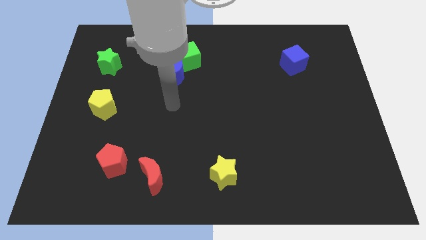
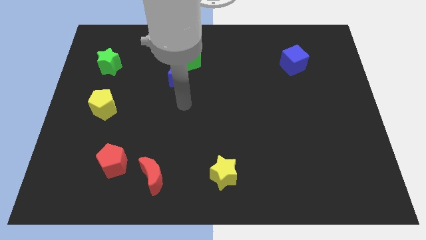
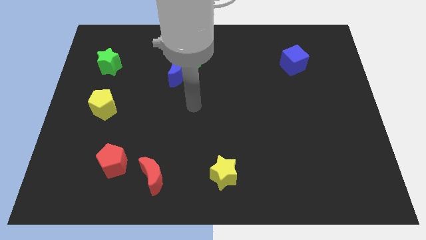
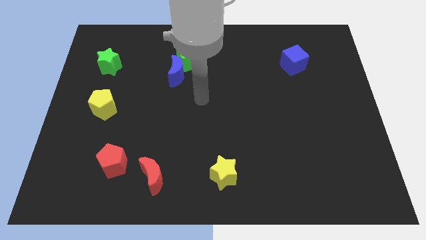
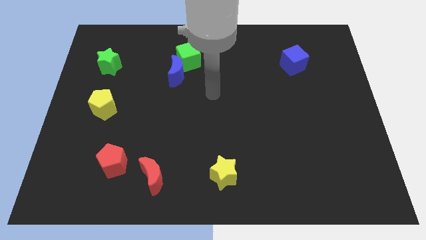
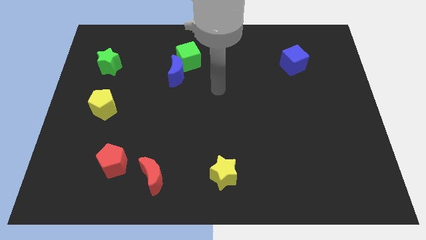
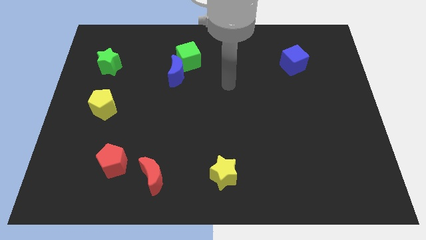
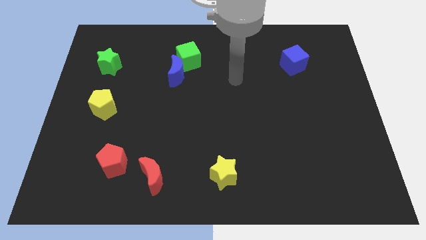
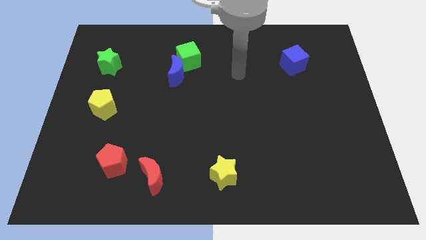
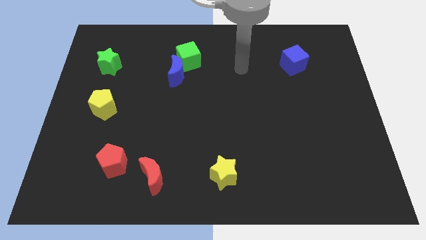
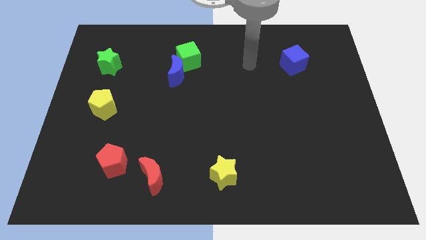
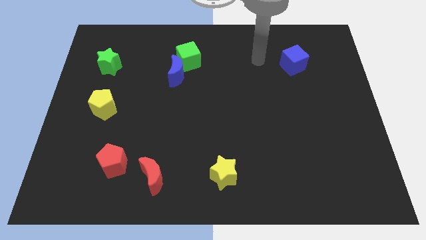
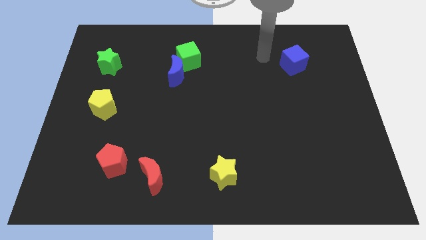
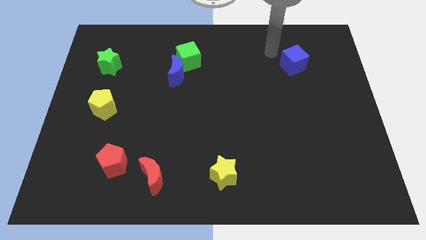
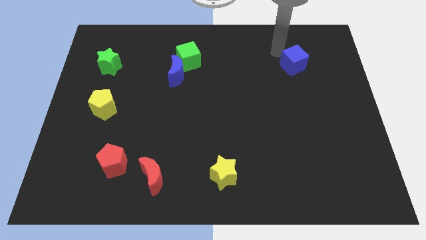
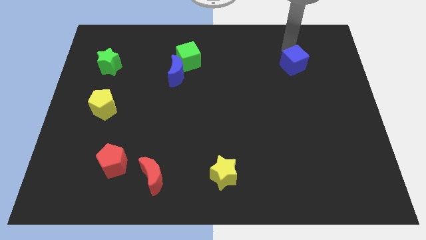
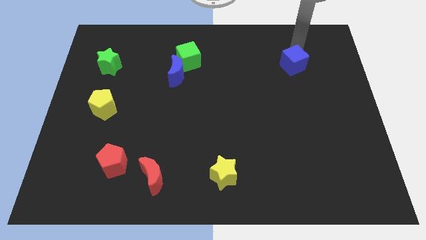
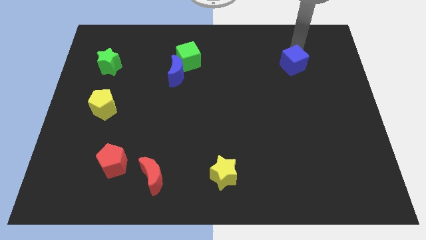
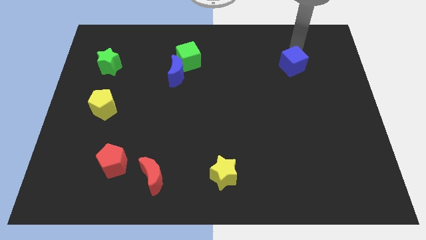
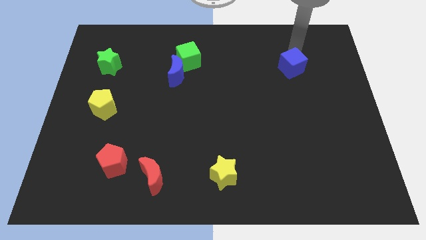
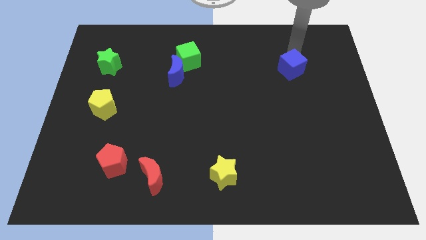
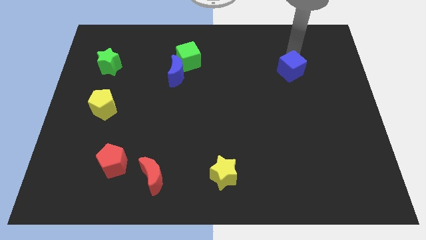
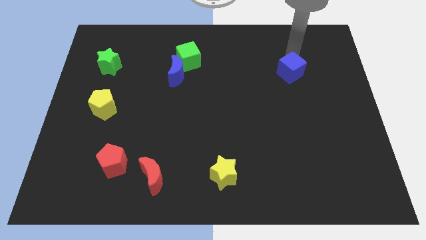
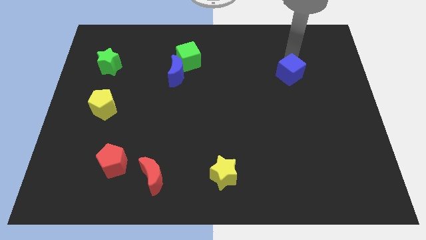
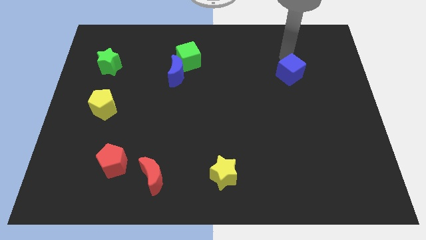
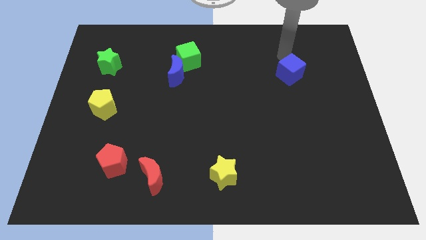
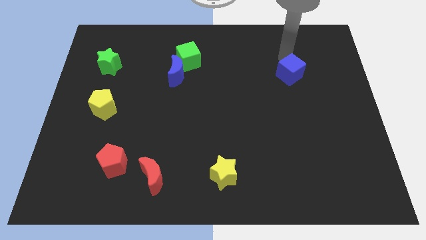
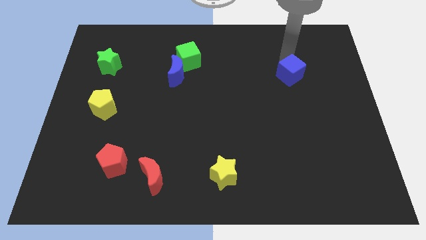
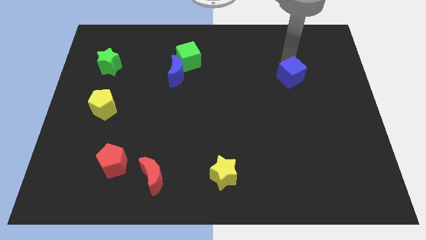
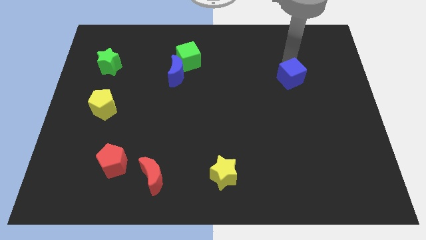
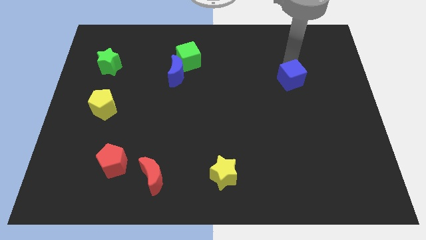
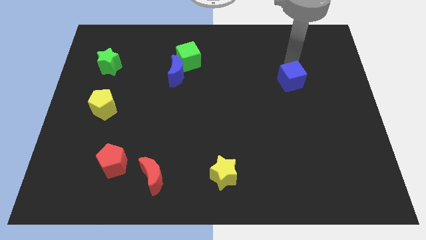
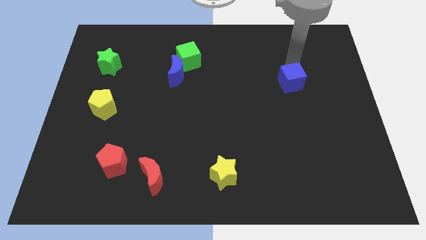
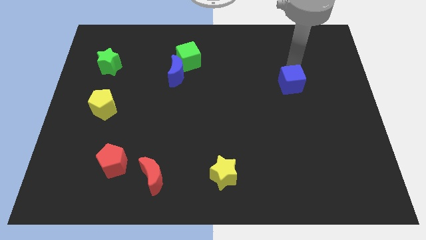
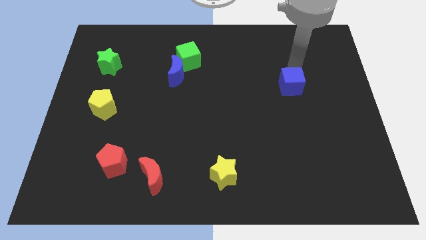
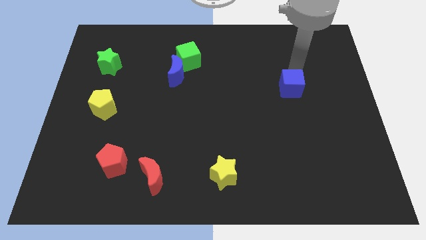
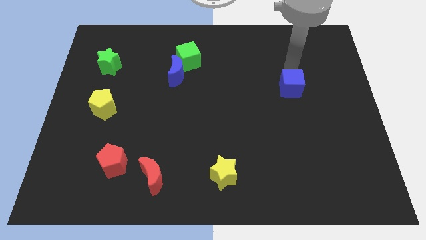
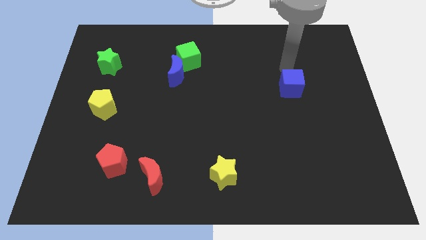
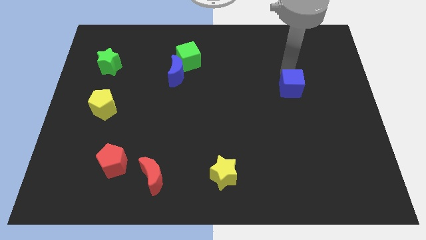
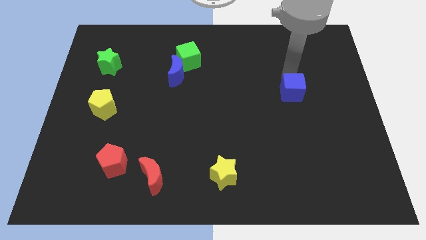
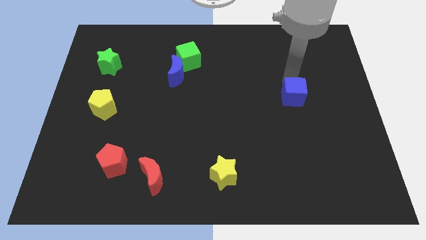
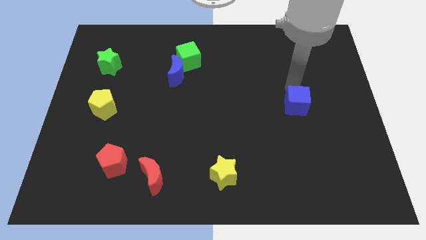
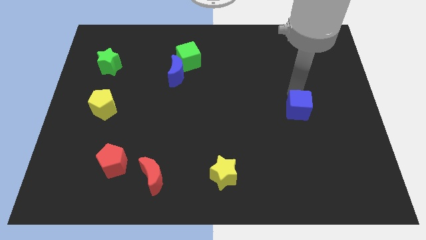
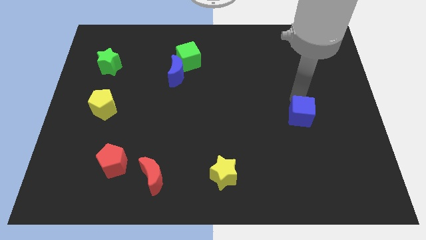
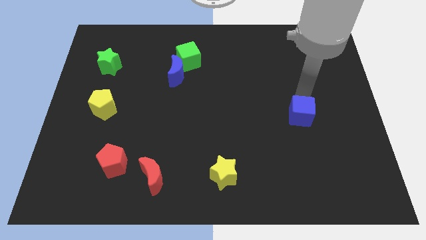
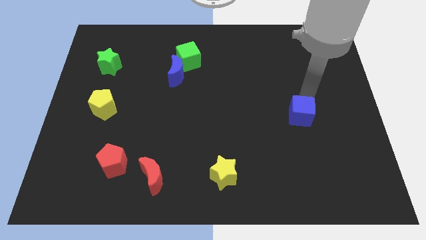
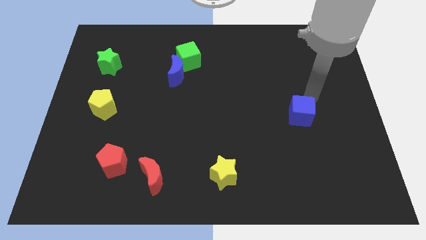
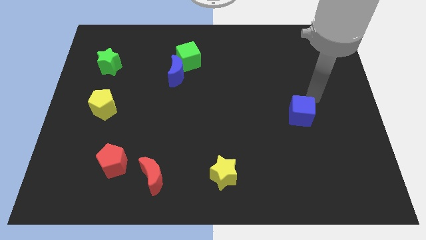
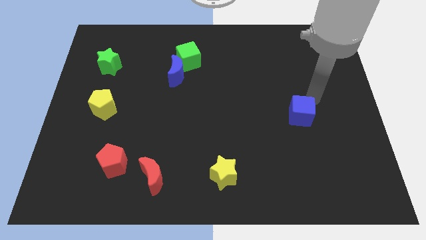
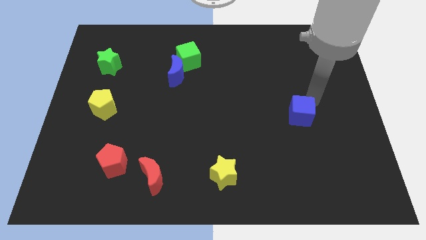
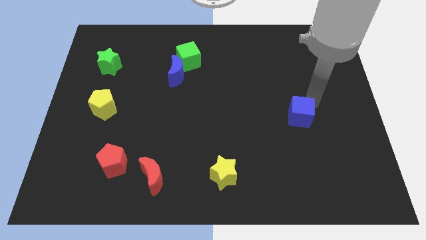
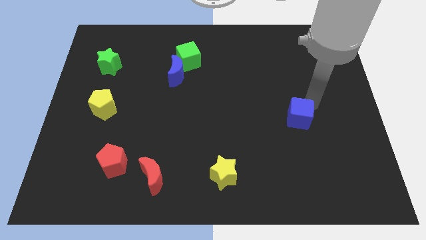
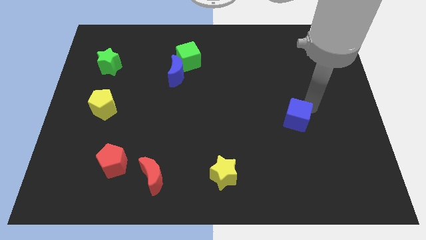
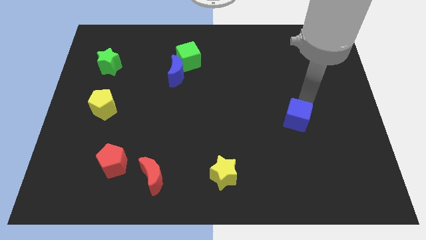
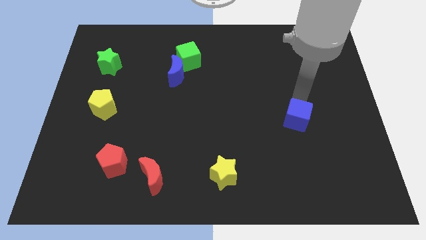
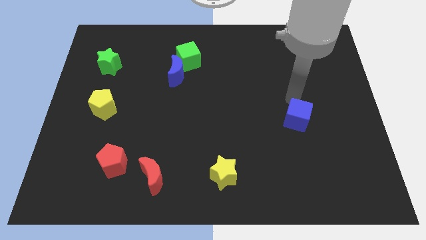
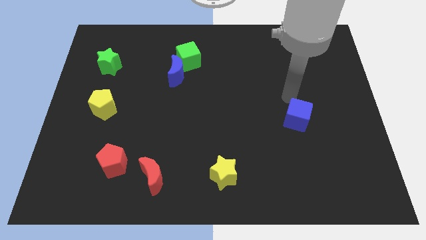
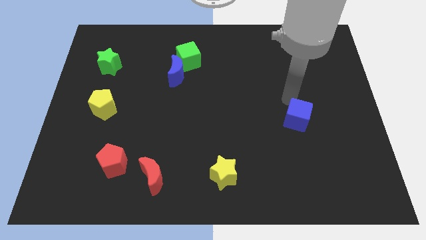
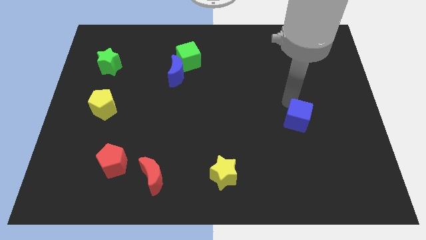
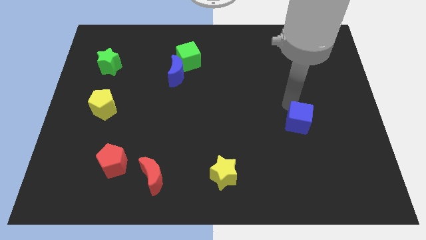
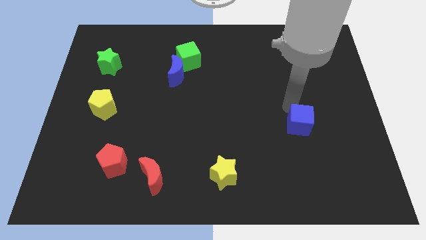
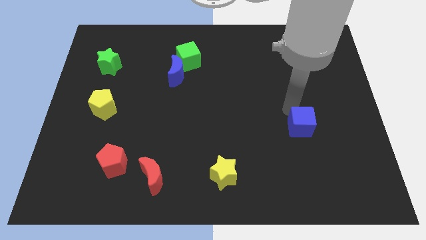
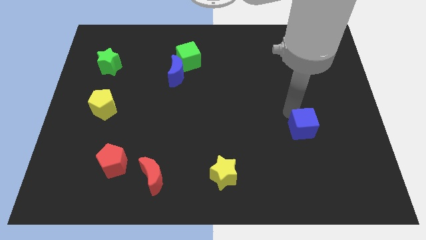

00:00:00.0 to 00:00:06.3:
slide the blue cube down

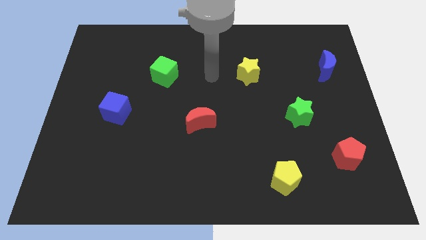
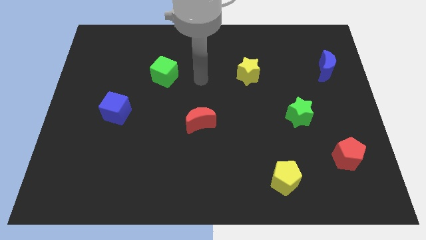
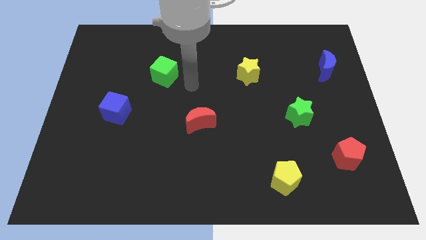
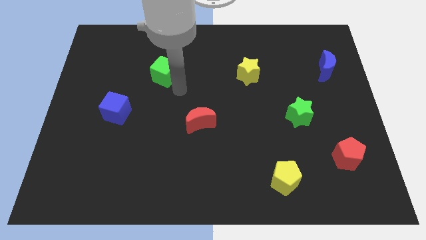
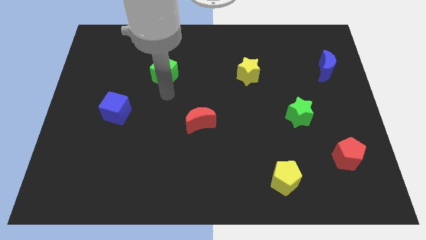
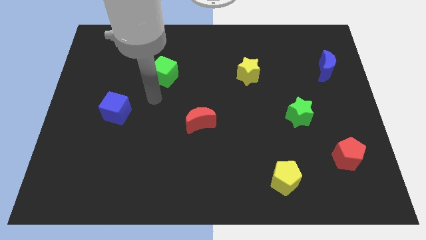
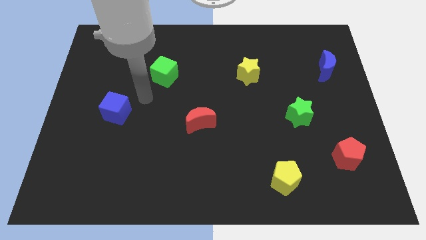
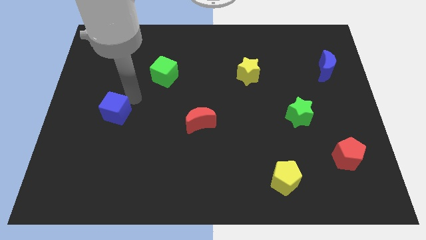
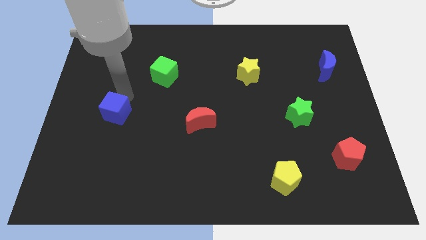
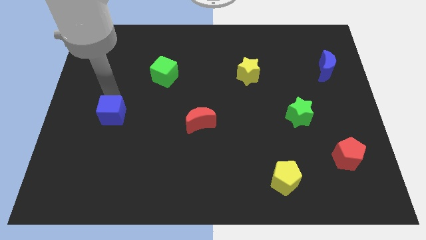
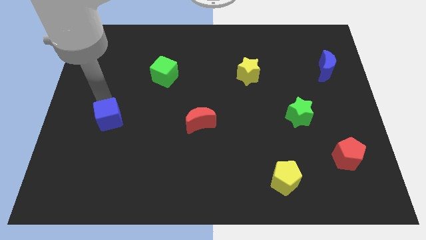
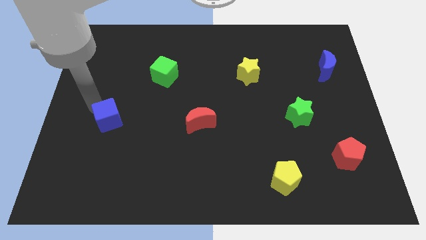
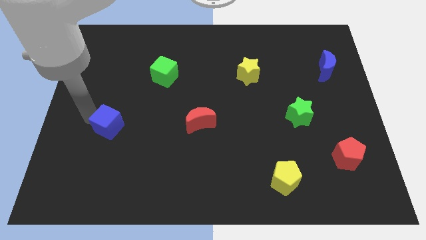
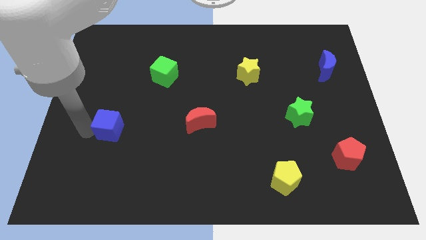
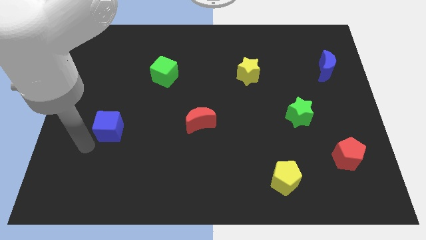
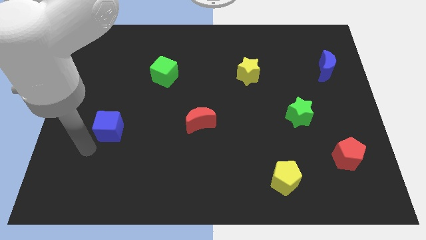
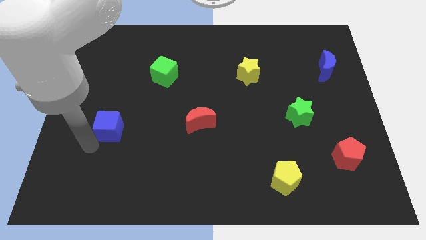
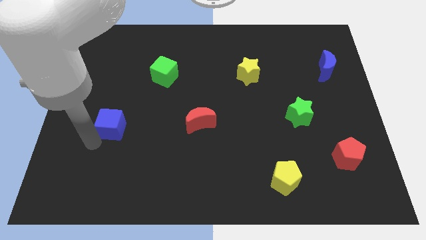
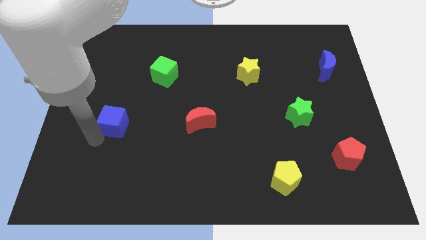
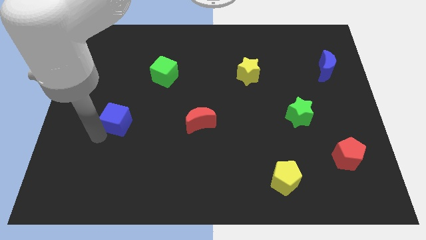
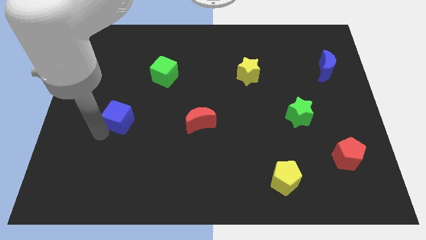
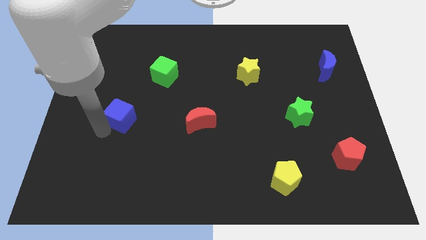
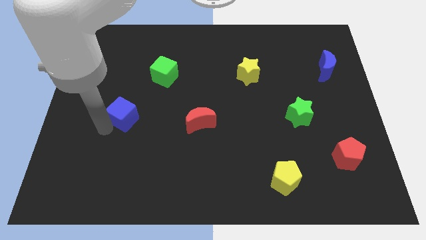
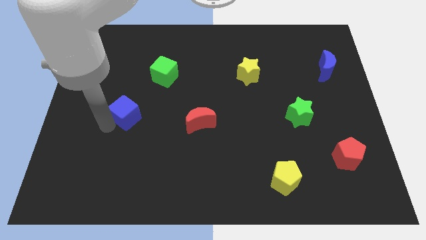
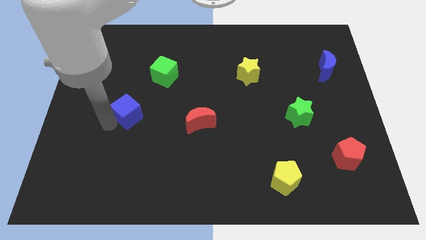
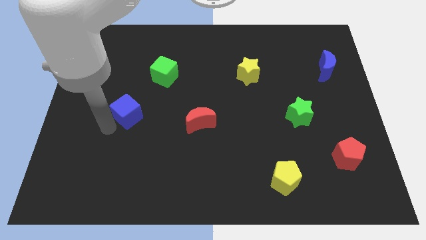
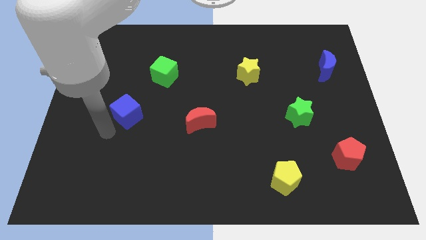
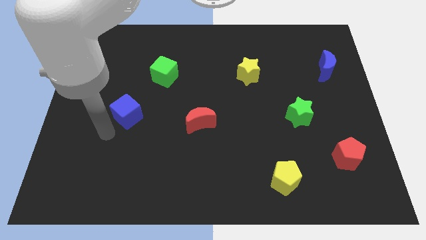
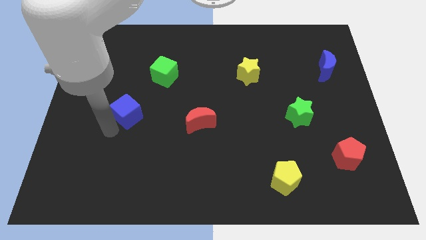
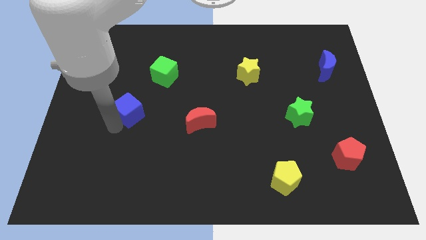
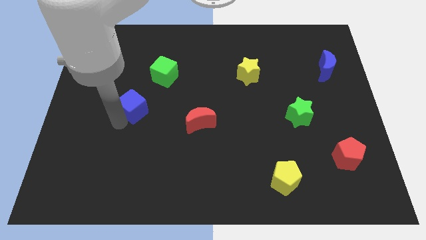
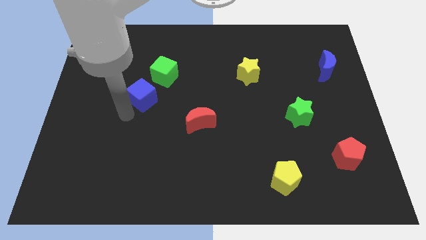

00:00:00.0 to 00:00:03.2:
push the blue cube a little upwards and then right
